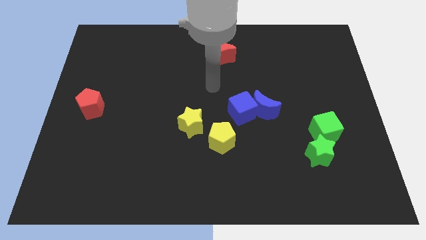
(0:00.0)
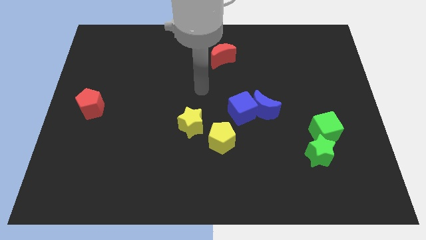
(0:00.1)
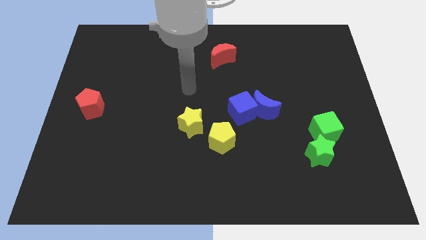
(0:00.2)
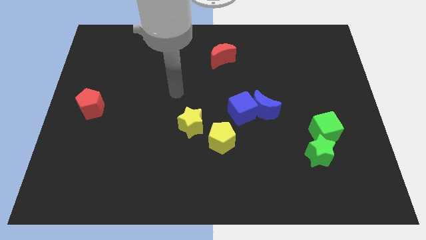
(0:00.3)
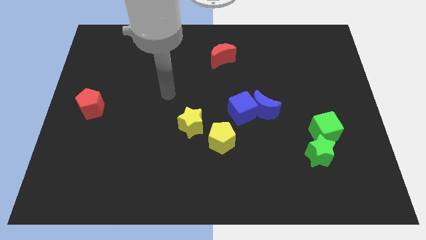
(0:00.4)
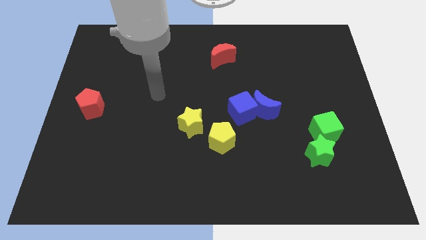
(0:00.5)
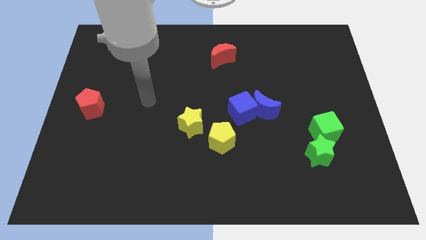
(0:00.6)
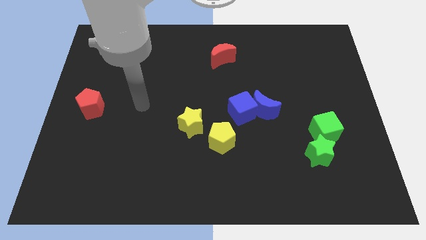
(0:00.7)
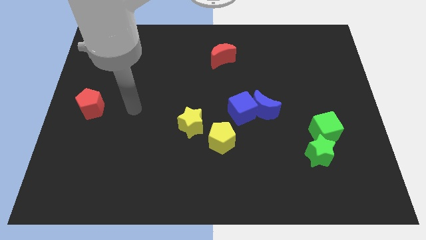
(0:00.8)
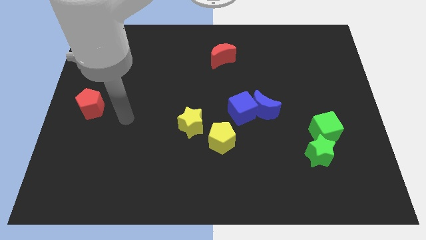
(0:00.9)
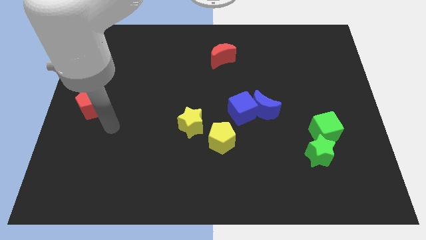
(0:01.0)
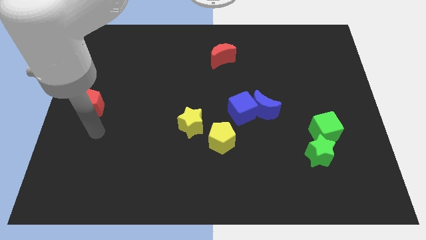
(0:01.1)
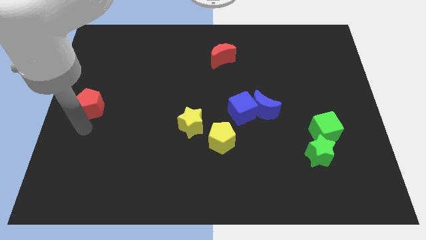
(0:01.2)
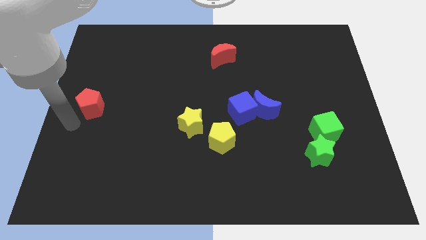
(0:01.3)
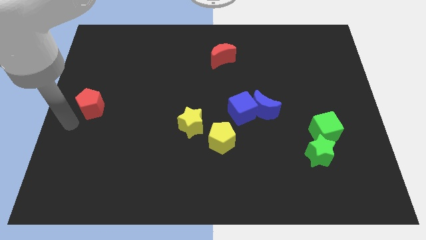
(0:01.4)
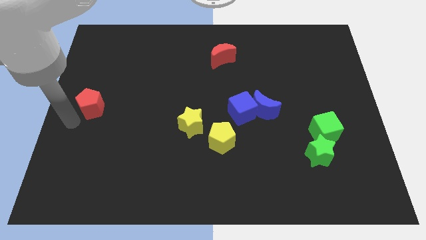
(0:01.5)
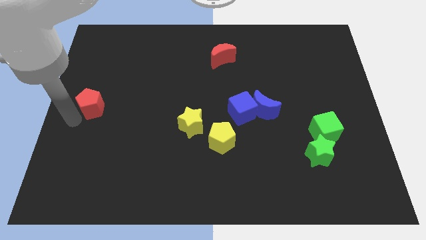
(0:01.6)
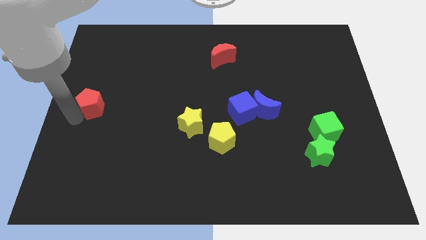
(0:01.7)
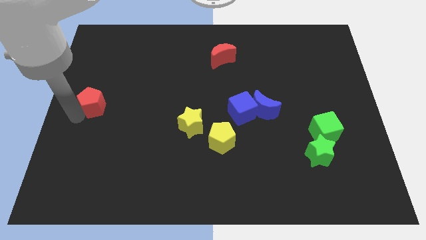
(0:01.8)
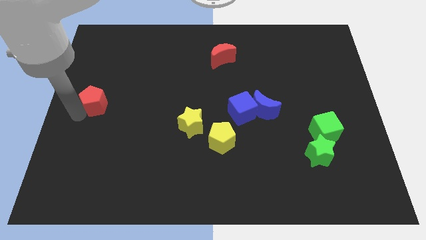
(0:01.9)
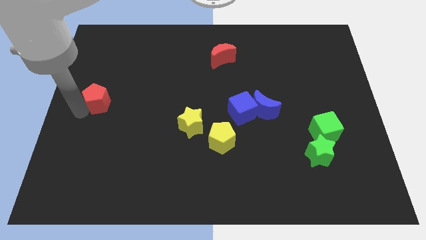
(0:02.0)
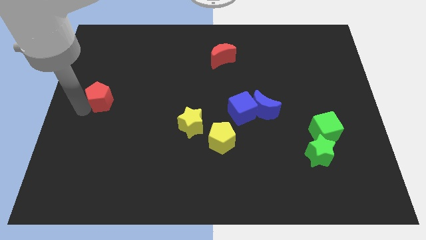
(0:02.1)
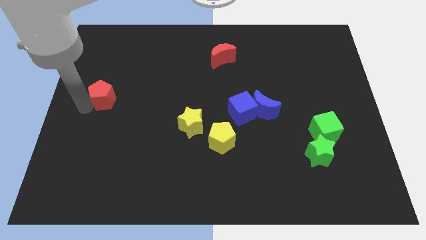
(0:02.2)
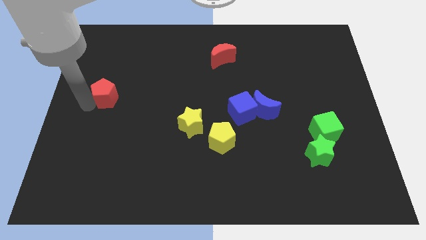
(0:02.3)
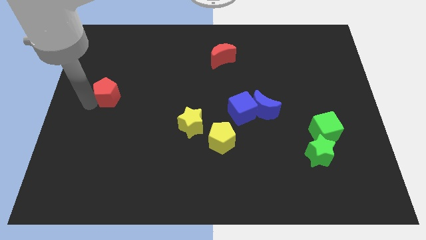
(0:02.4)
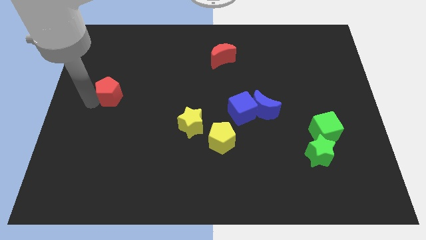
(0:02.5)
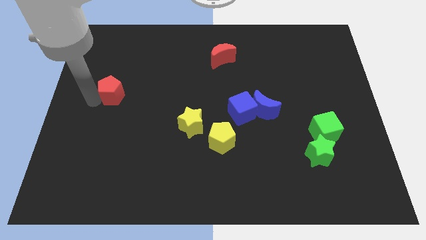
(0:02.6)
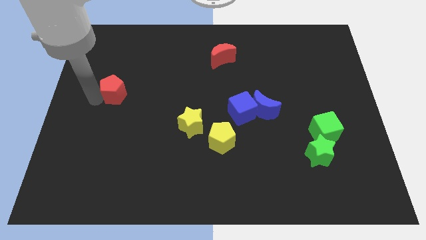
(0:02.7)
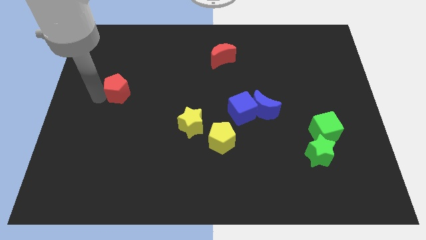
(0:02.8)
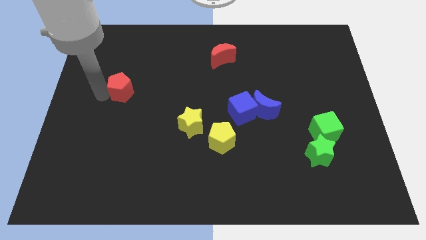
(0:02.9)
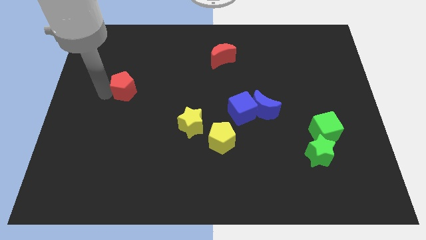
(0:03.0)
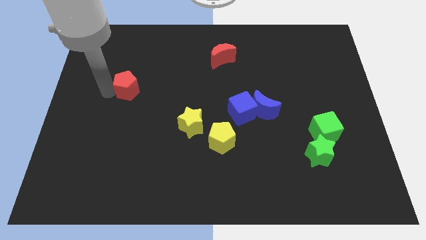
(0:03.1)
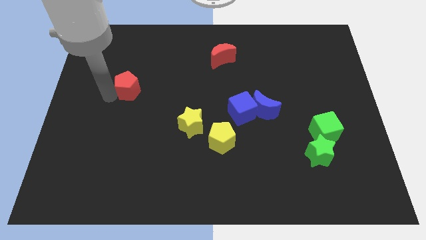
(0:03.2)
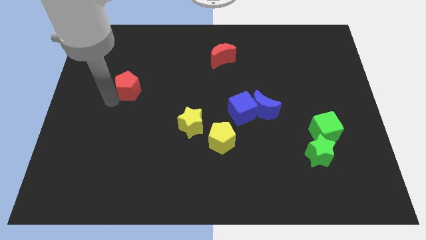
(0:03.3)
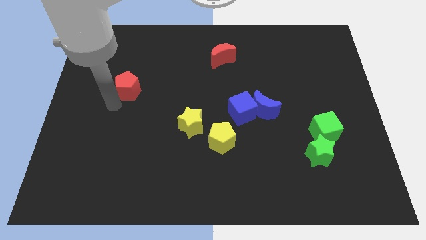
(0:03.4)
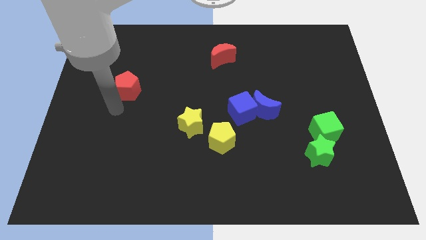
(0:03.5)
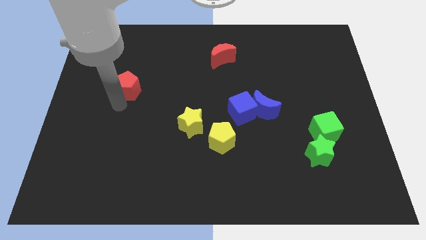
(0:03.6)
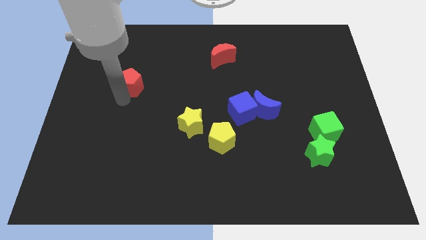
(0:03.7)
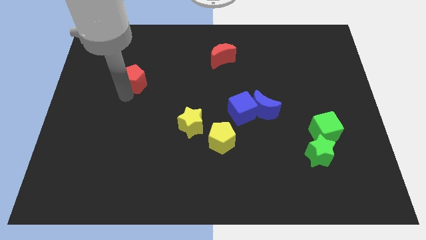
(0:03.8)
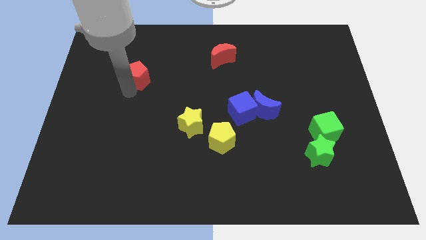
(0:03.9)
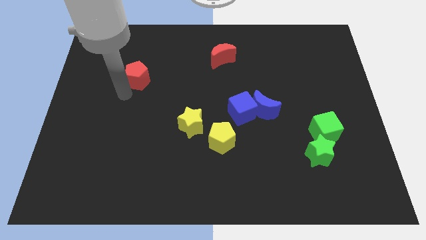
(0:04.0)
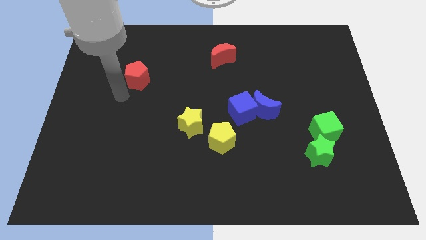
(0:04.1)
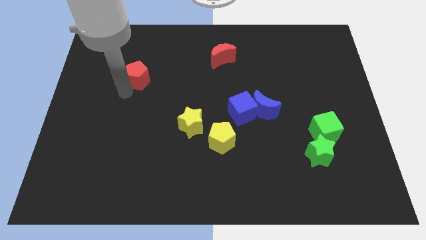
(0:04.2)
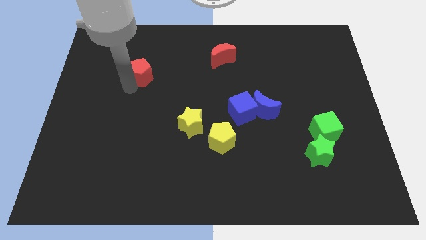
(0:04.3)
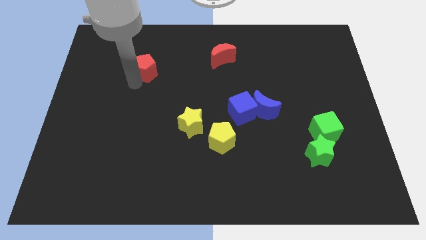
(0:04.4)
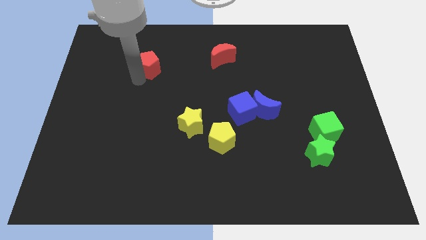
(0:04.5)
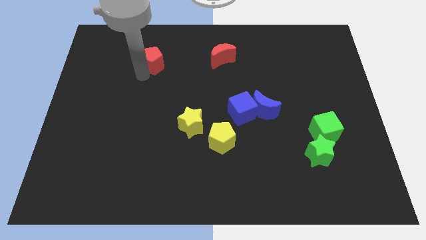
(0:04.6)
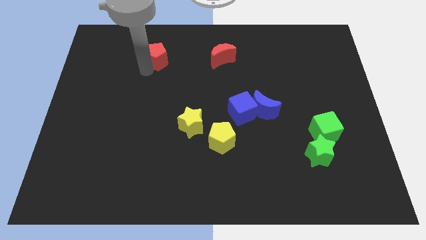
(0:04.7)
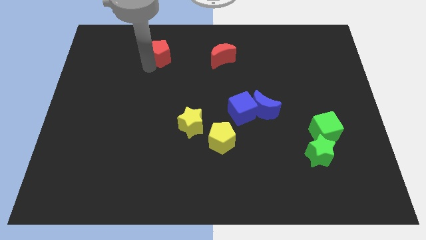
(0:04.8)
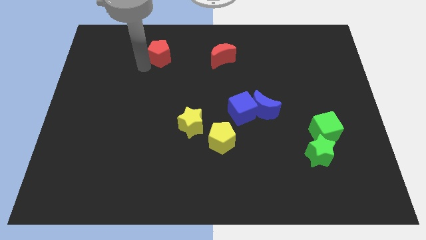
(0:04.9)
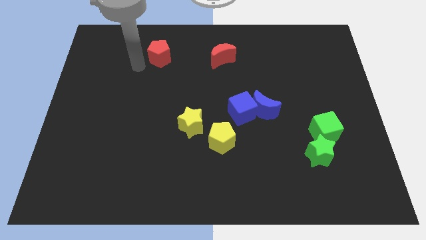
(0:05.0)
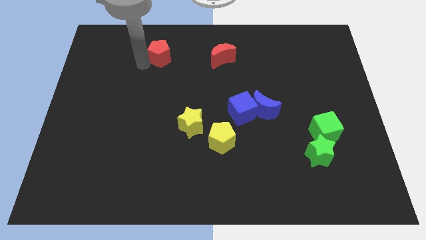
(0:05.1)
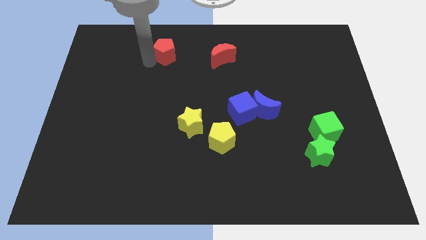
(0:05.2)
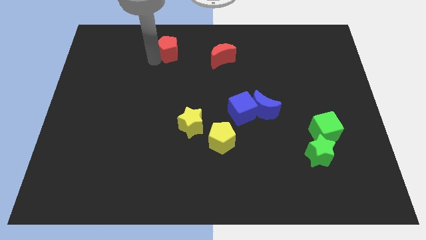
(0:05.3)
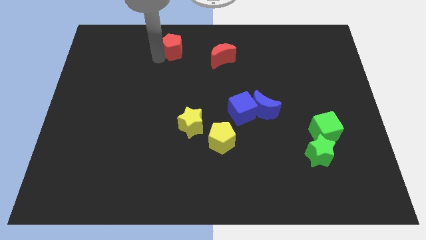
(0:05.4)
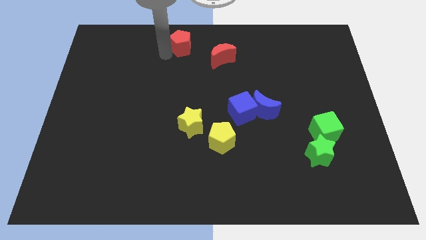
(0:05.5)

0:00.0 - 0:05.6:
slide the red pentagon to the top side

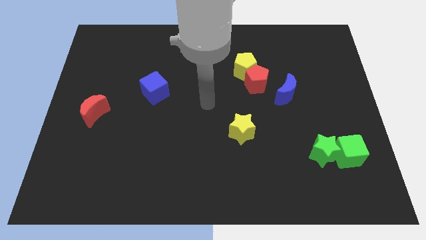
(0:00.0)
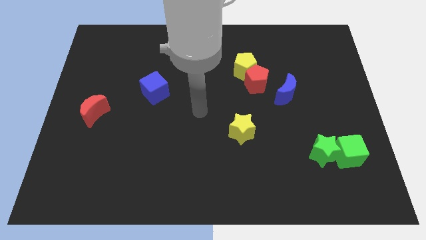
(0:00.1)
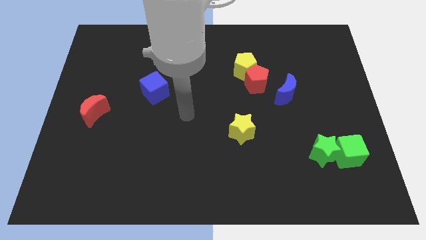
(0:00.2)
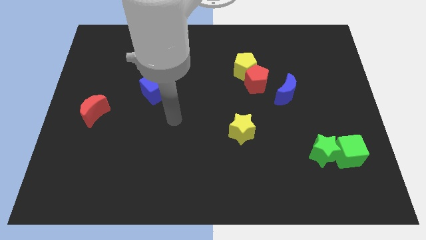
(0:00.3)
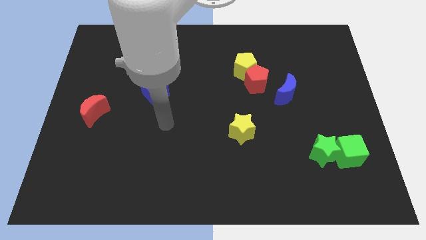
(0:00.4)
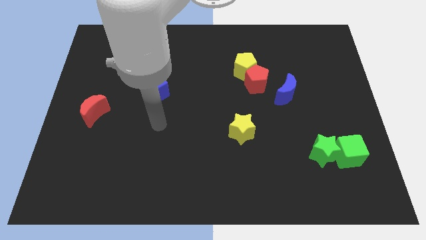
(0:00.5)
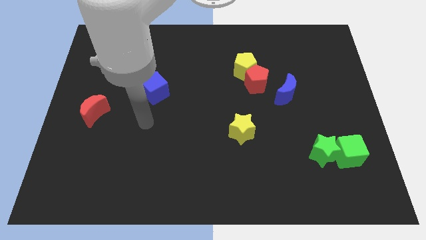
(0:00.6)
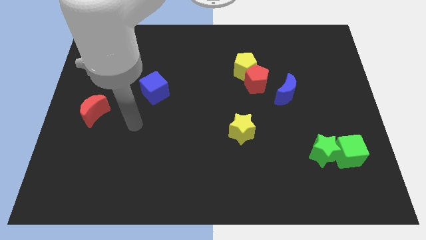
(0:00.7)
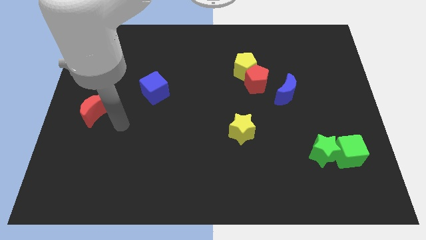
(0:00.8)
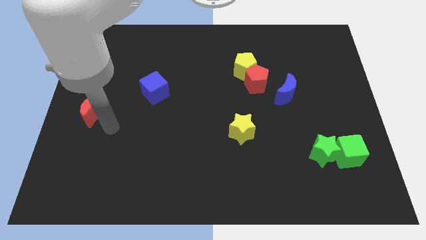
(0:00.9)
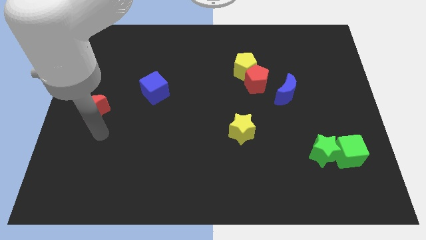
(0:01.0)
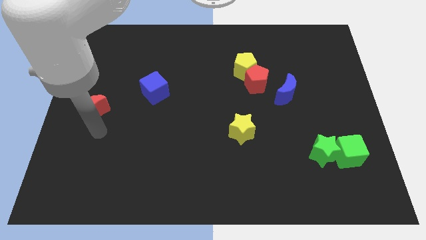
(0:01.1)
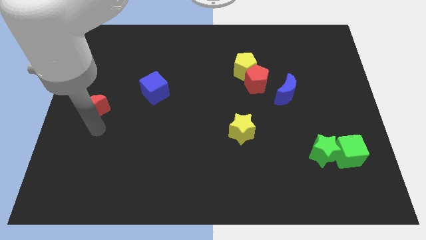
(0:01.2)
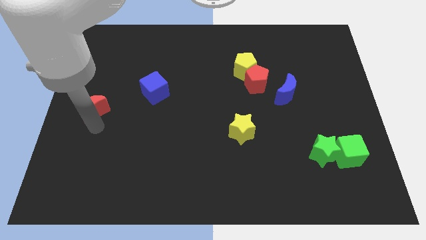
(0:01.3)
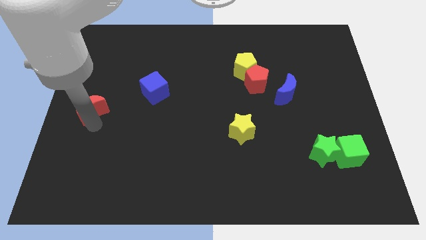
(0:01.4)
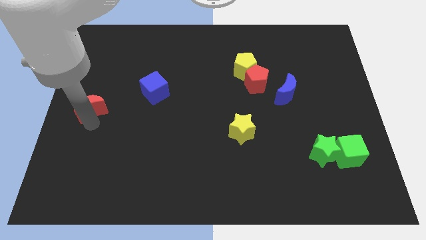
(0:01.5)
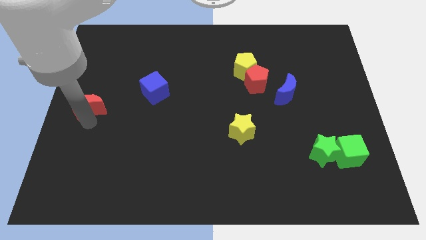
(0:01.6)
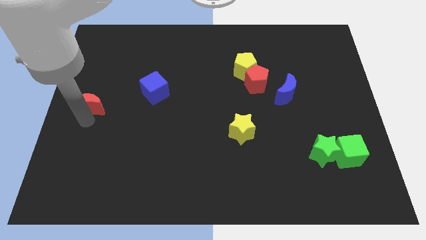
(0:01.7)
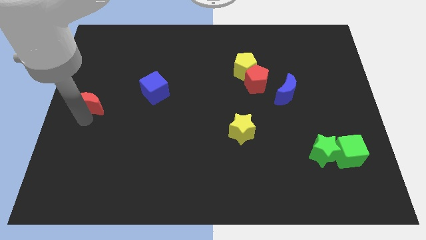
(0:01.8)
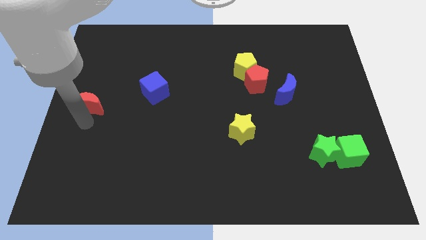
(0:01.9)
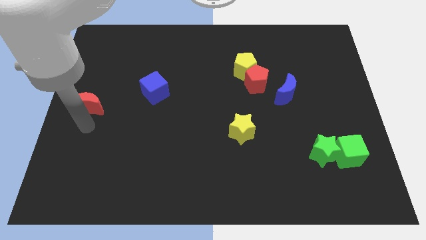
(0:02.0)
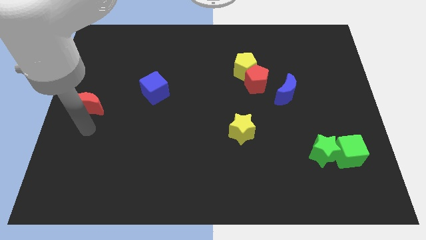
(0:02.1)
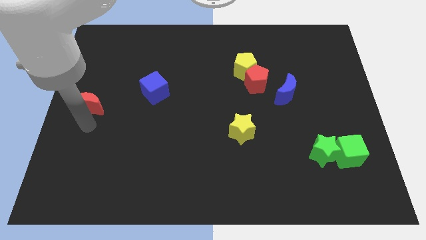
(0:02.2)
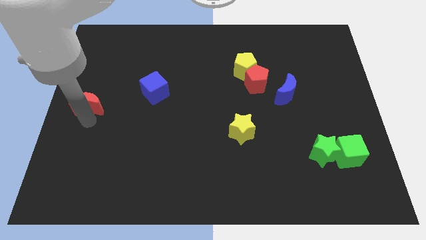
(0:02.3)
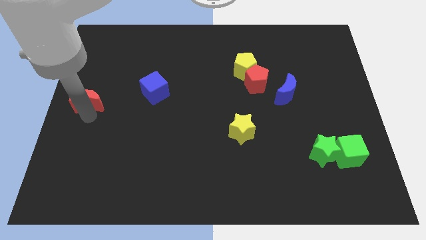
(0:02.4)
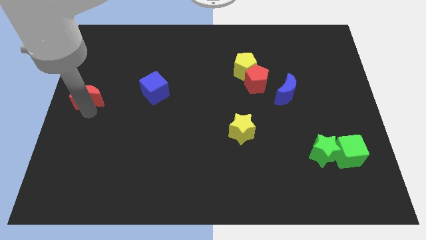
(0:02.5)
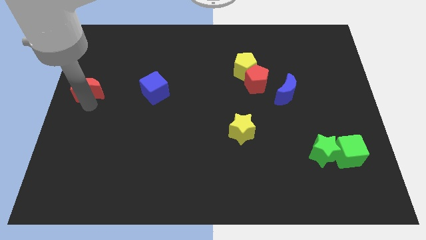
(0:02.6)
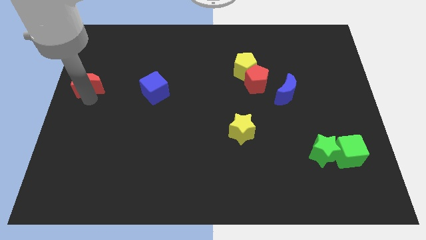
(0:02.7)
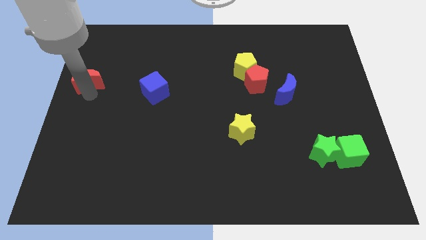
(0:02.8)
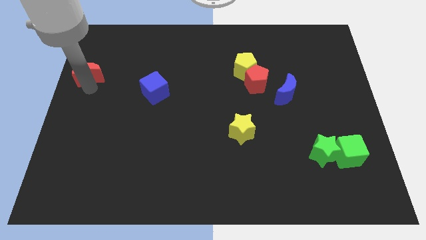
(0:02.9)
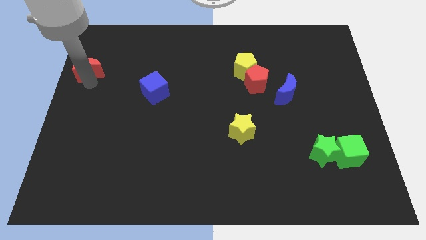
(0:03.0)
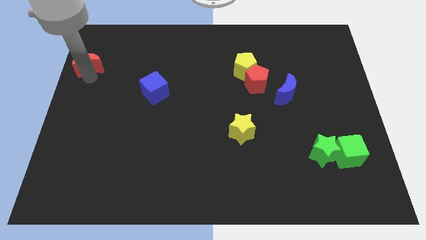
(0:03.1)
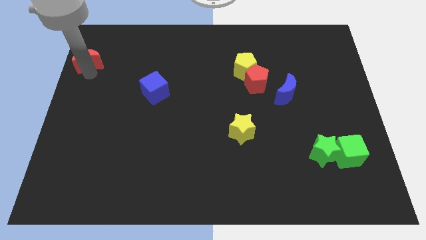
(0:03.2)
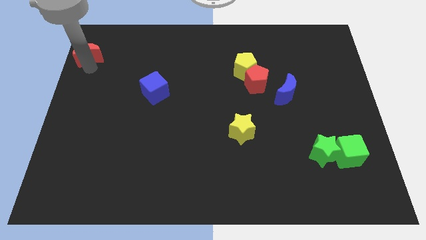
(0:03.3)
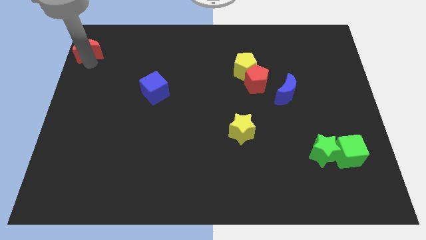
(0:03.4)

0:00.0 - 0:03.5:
move the red moon to the top left
